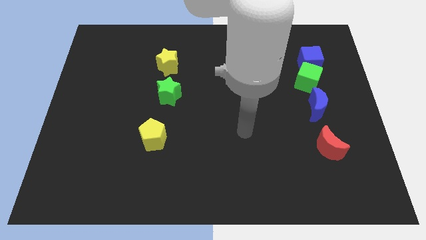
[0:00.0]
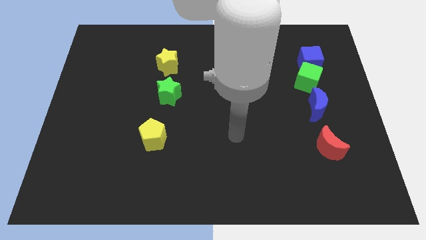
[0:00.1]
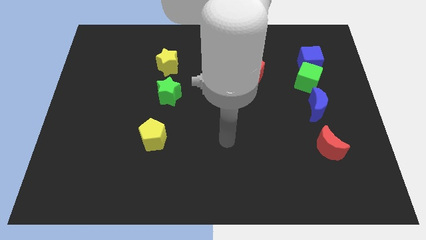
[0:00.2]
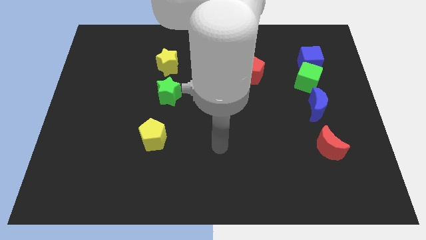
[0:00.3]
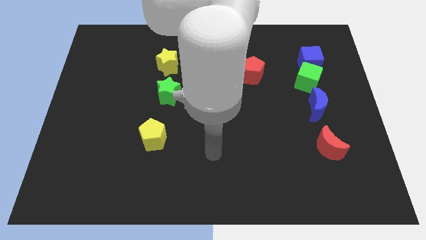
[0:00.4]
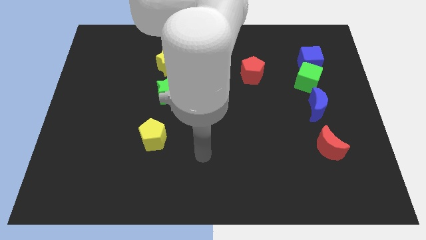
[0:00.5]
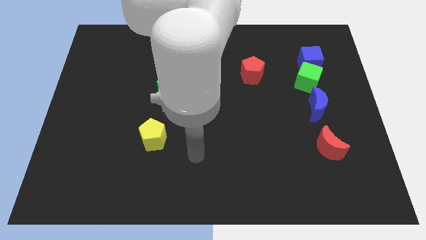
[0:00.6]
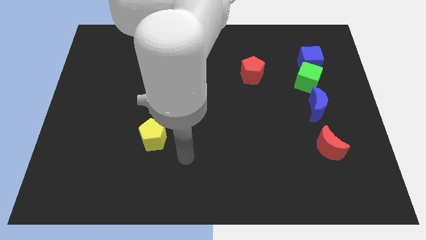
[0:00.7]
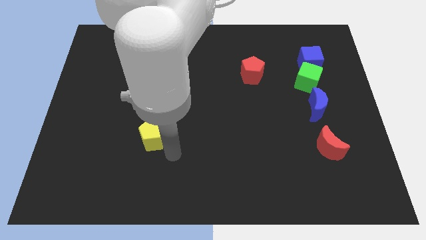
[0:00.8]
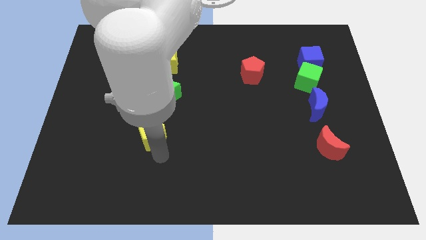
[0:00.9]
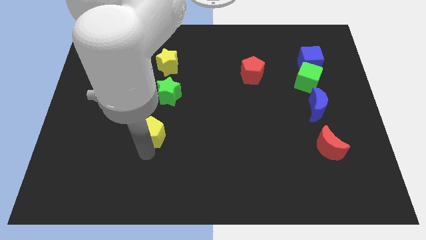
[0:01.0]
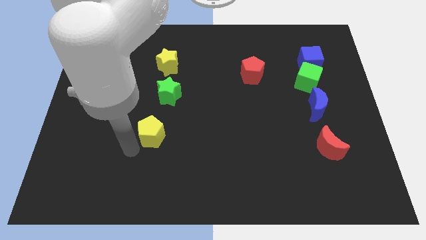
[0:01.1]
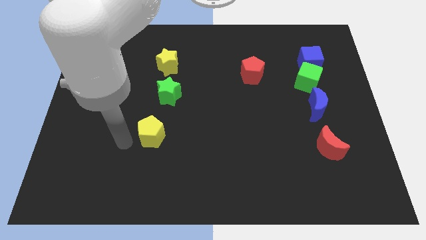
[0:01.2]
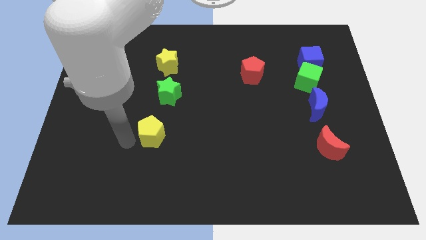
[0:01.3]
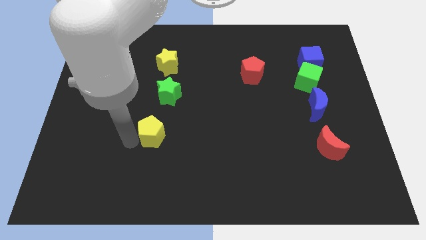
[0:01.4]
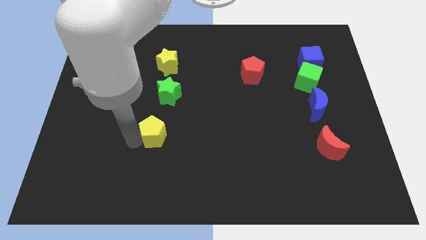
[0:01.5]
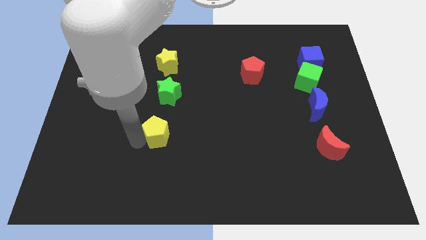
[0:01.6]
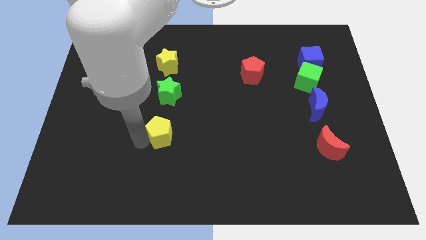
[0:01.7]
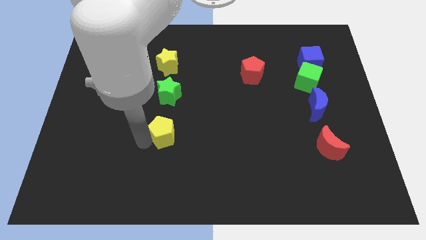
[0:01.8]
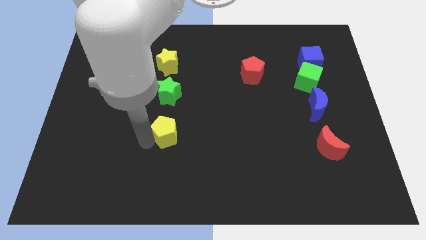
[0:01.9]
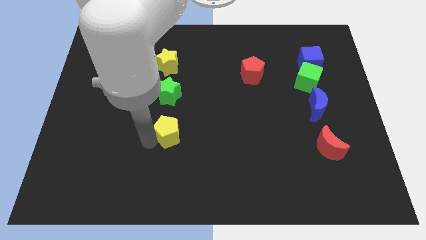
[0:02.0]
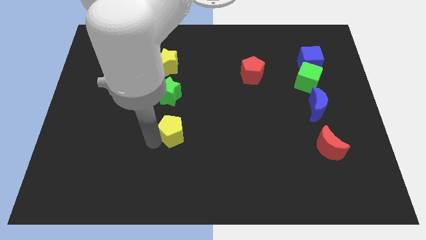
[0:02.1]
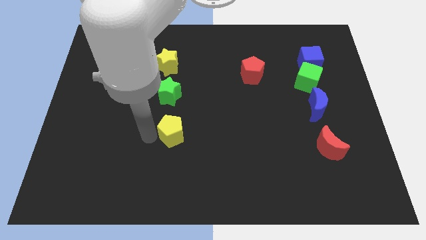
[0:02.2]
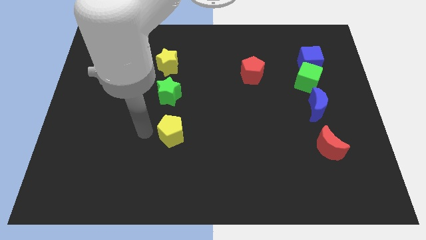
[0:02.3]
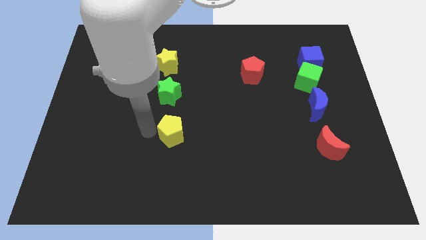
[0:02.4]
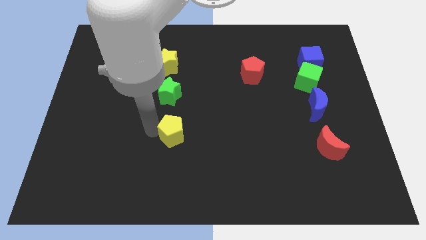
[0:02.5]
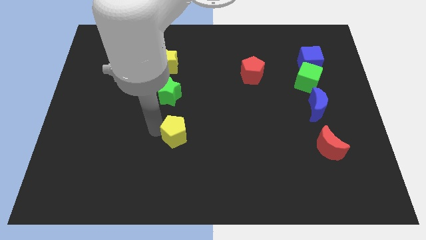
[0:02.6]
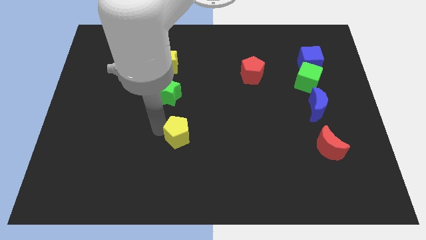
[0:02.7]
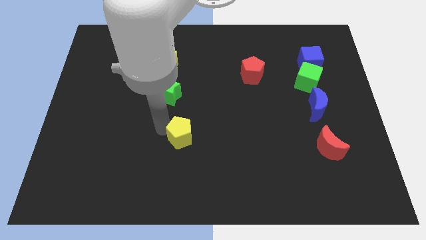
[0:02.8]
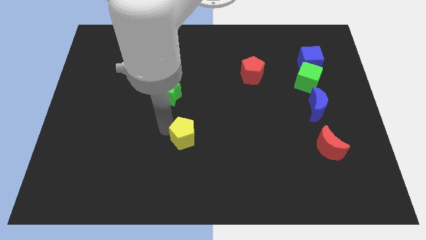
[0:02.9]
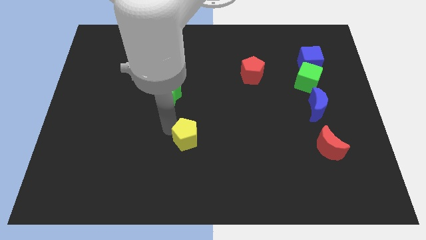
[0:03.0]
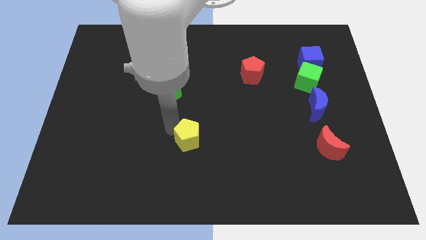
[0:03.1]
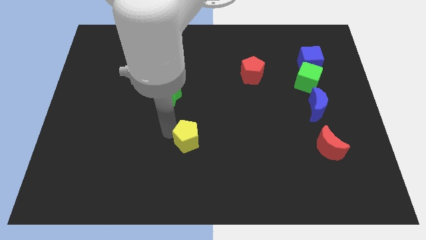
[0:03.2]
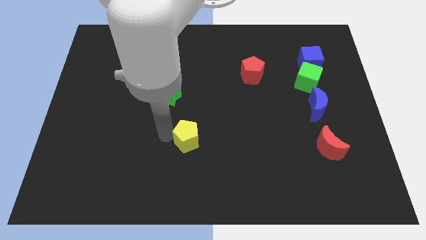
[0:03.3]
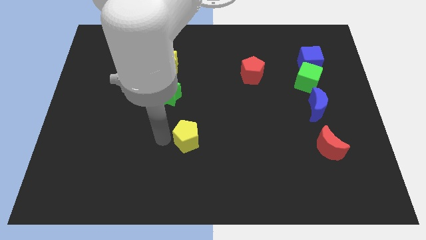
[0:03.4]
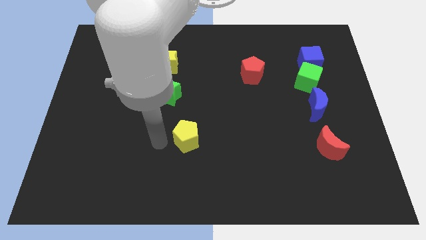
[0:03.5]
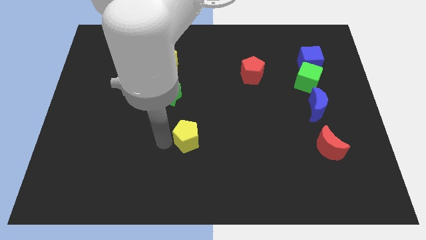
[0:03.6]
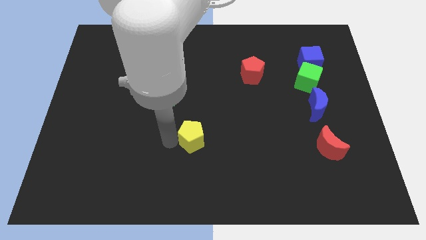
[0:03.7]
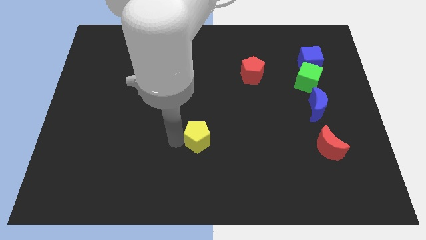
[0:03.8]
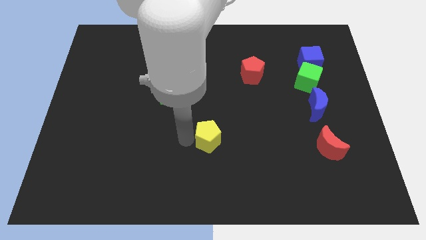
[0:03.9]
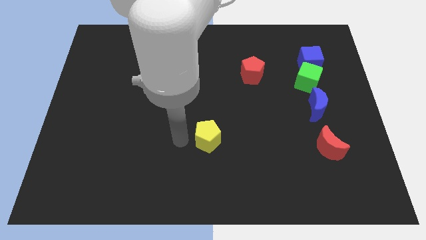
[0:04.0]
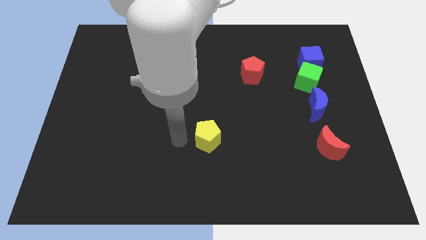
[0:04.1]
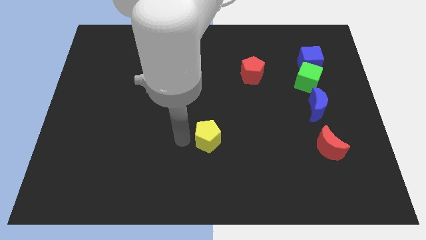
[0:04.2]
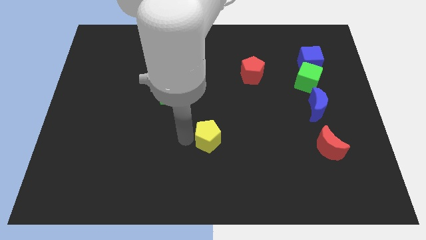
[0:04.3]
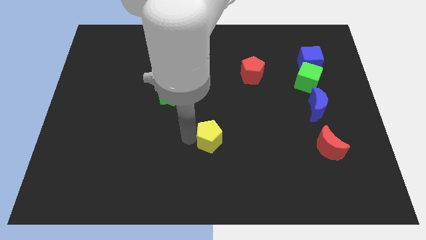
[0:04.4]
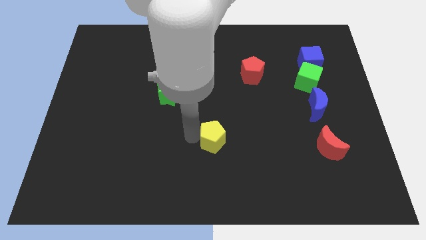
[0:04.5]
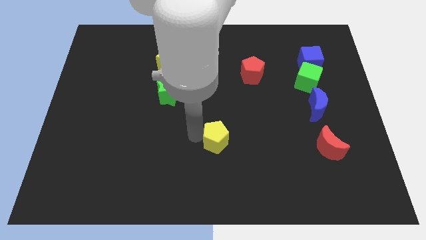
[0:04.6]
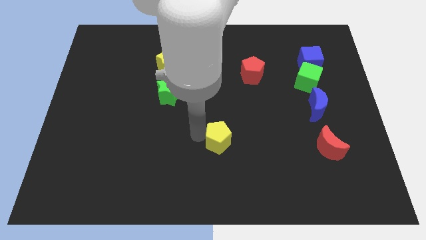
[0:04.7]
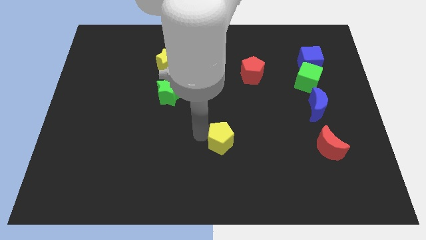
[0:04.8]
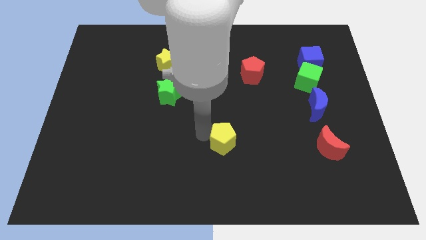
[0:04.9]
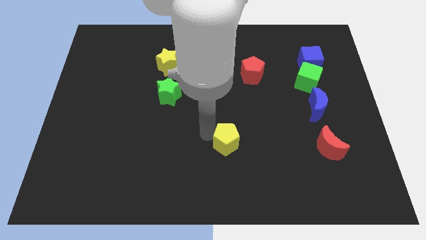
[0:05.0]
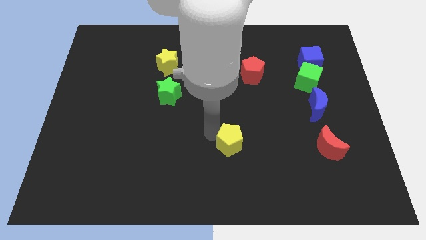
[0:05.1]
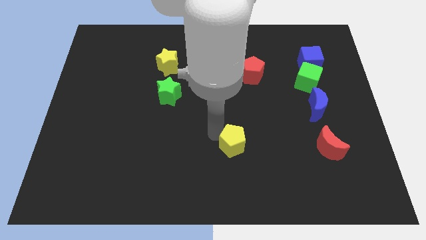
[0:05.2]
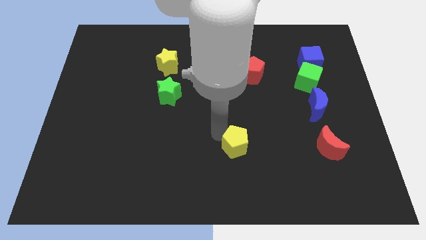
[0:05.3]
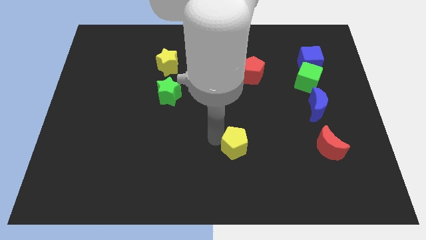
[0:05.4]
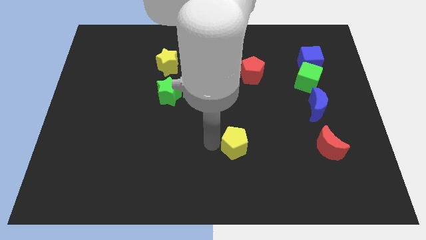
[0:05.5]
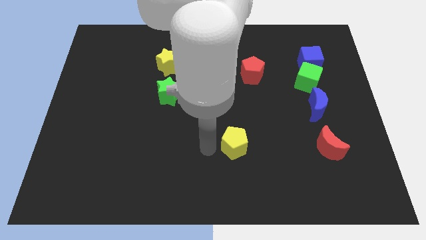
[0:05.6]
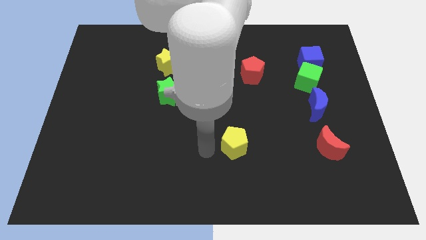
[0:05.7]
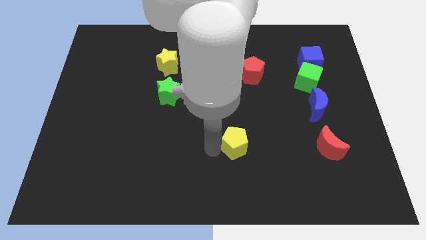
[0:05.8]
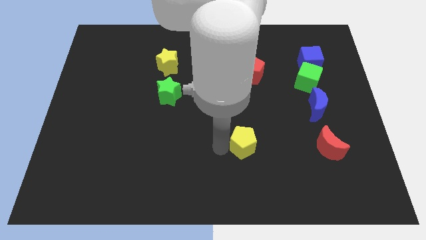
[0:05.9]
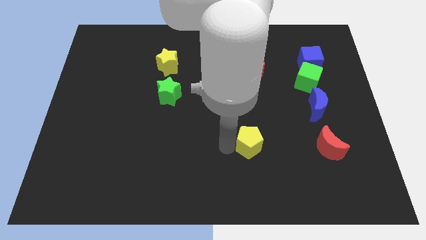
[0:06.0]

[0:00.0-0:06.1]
slide the yellow pentagon right

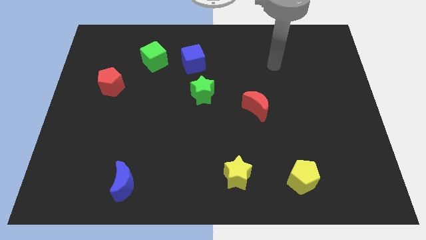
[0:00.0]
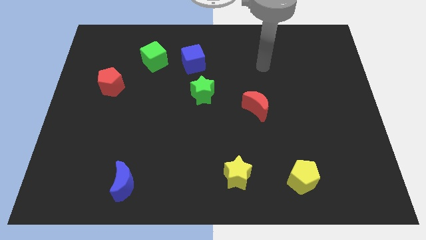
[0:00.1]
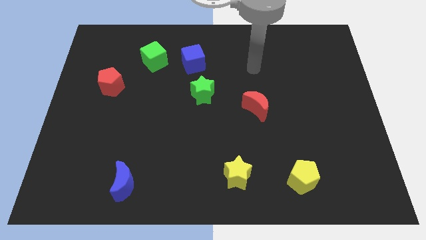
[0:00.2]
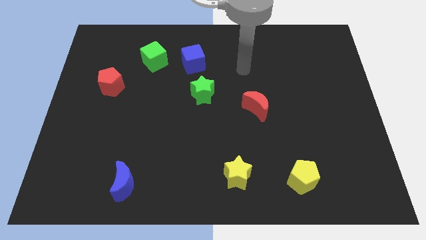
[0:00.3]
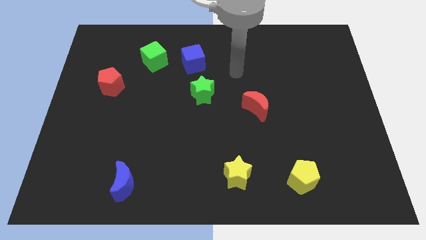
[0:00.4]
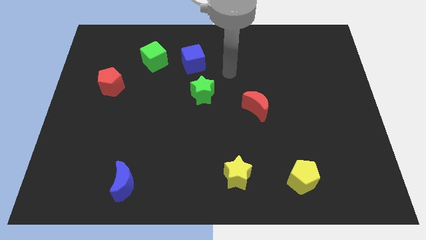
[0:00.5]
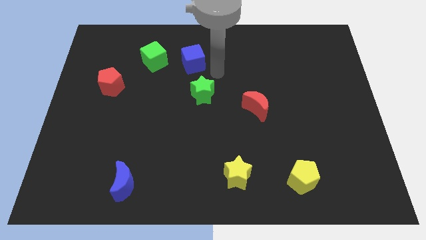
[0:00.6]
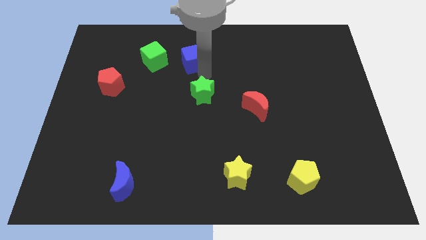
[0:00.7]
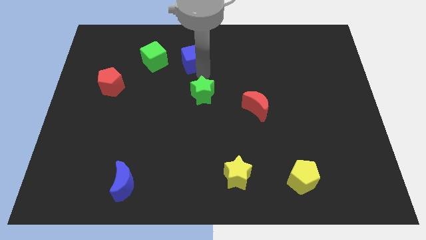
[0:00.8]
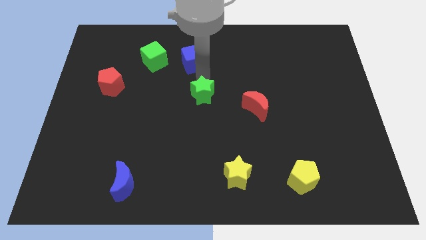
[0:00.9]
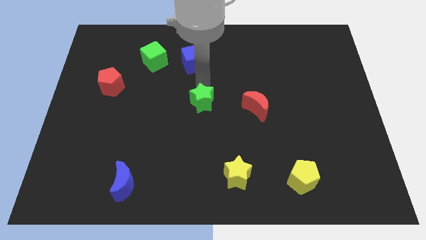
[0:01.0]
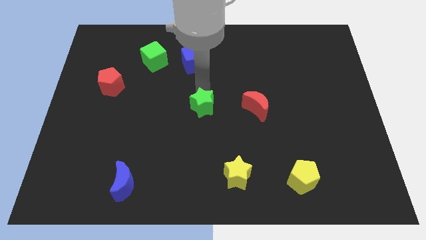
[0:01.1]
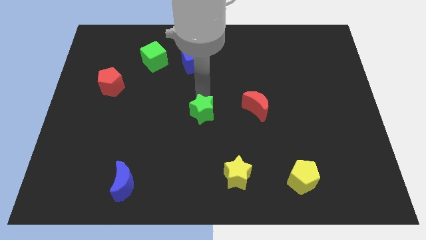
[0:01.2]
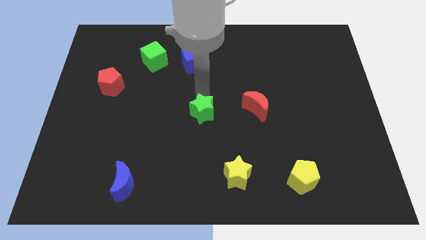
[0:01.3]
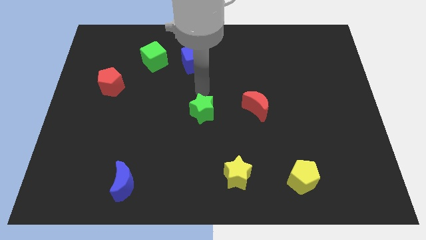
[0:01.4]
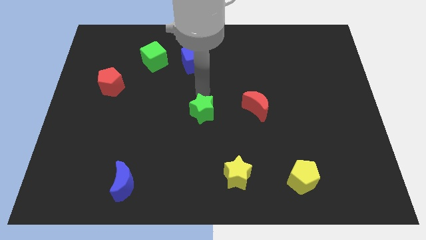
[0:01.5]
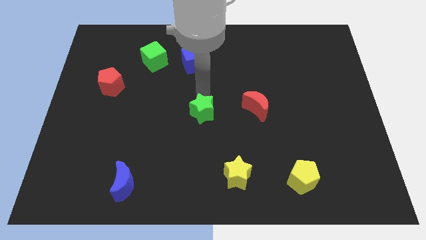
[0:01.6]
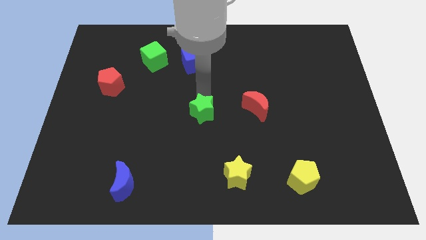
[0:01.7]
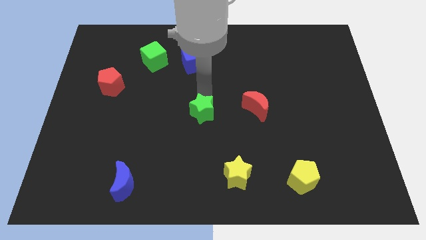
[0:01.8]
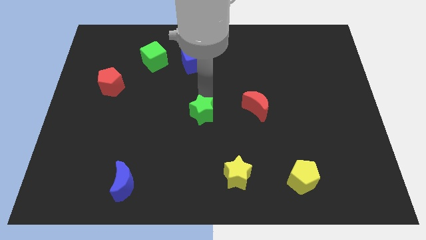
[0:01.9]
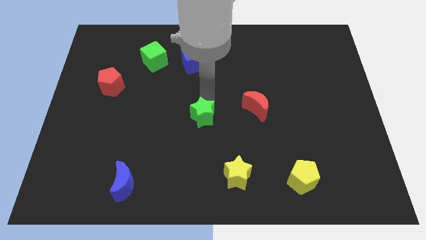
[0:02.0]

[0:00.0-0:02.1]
push the green star downwards slightly

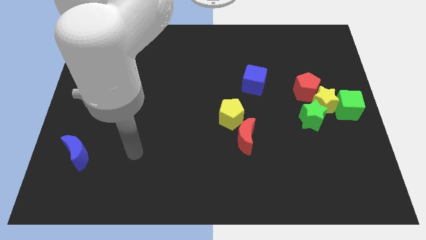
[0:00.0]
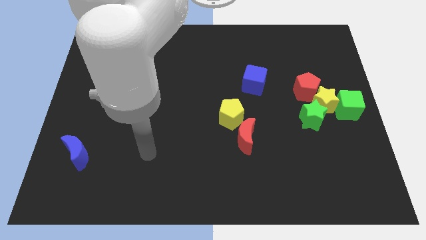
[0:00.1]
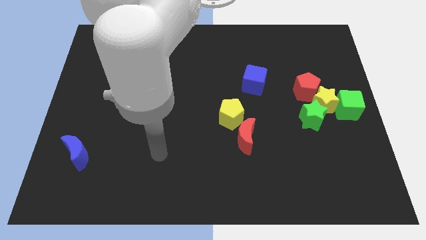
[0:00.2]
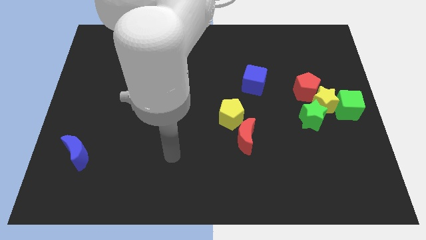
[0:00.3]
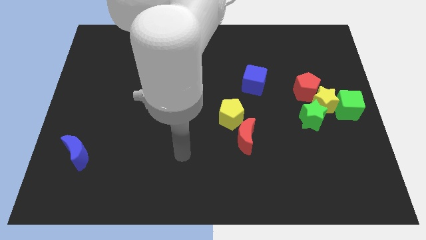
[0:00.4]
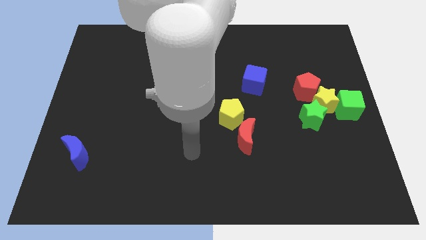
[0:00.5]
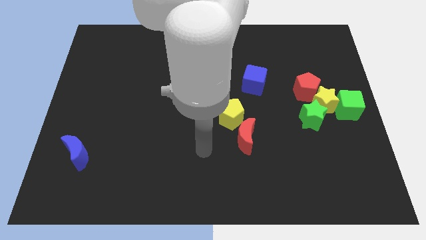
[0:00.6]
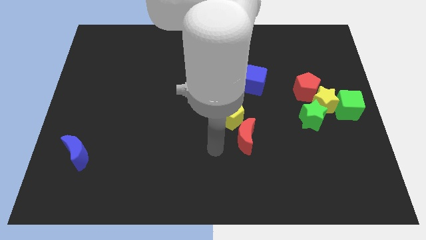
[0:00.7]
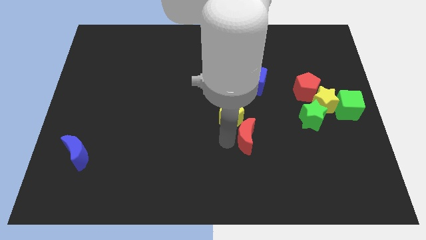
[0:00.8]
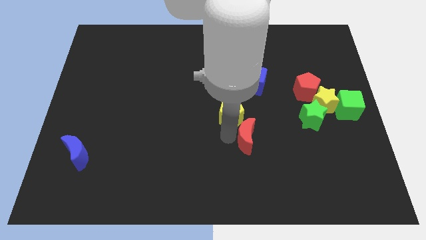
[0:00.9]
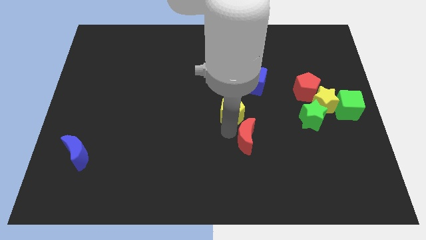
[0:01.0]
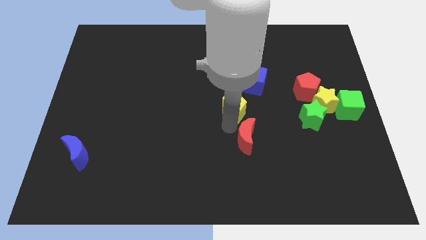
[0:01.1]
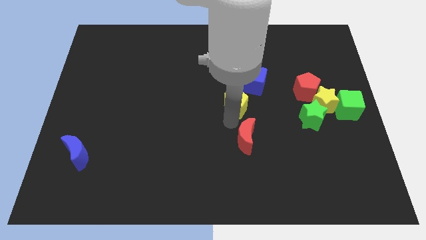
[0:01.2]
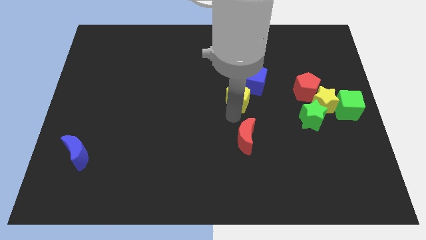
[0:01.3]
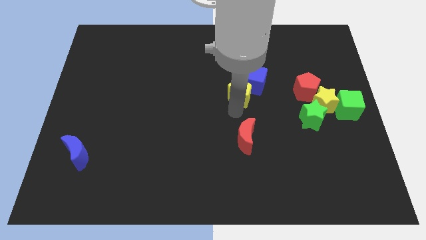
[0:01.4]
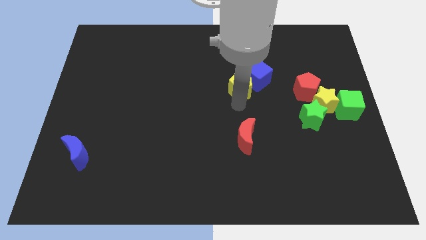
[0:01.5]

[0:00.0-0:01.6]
slightly move the yellow pentagon upwards
